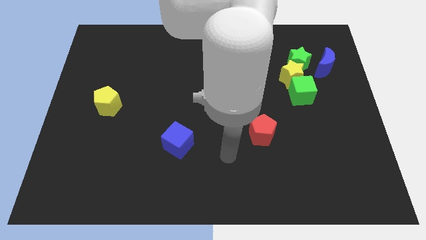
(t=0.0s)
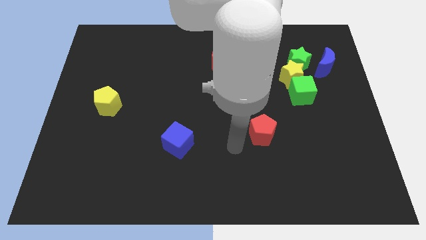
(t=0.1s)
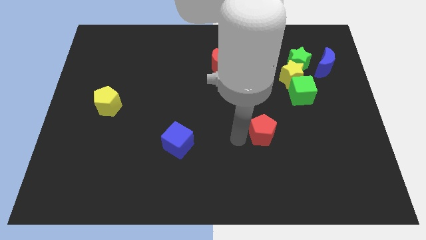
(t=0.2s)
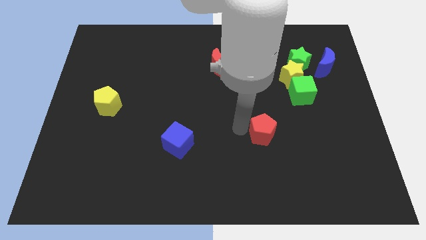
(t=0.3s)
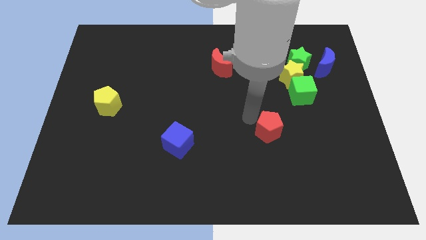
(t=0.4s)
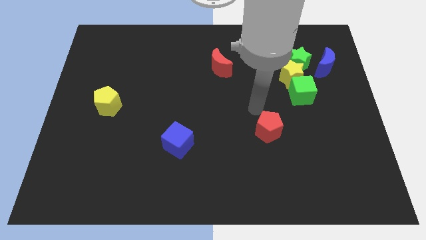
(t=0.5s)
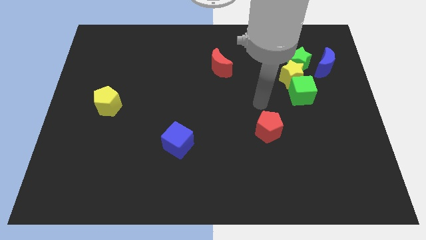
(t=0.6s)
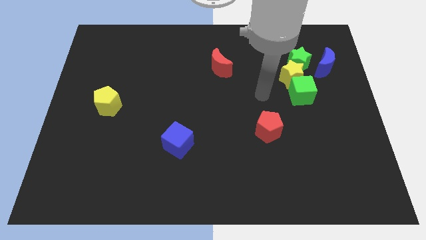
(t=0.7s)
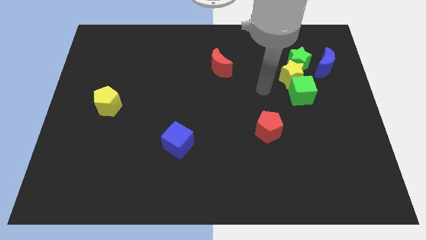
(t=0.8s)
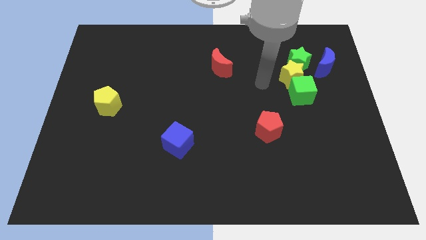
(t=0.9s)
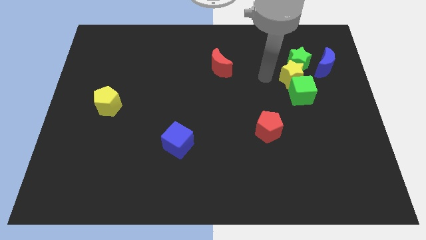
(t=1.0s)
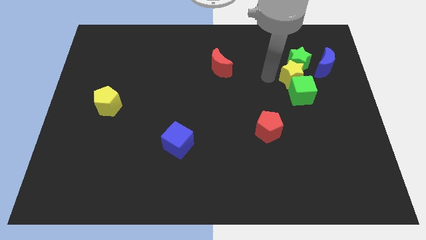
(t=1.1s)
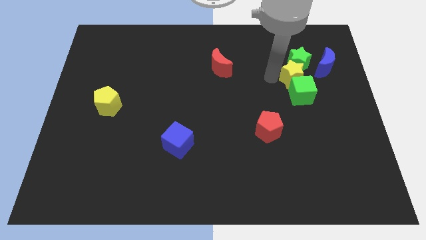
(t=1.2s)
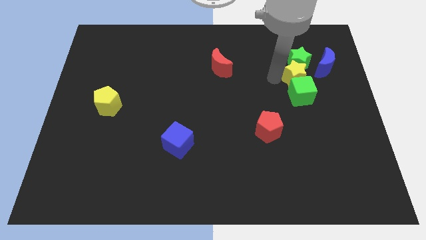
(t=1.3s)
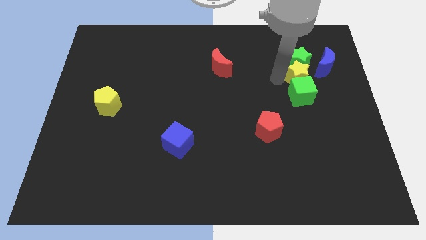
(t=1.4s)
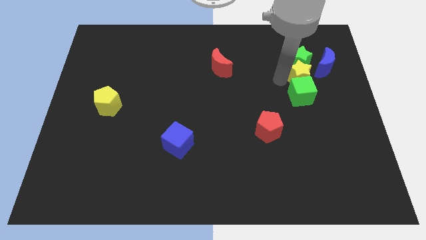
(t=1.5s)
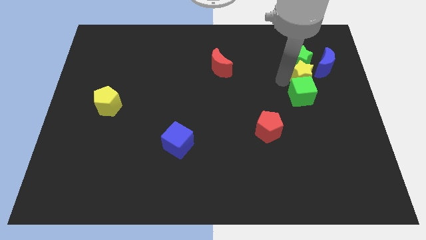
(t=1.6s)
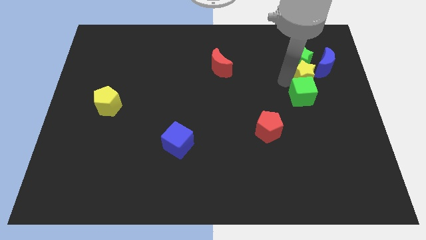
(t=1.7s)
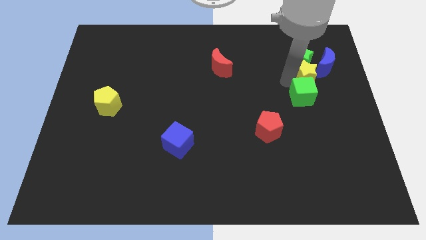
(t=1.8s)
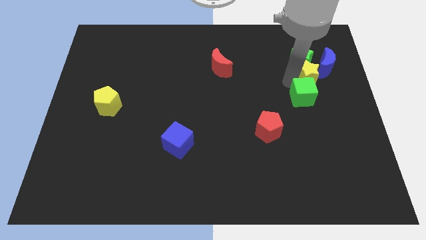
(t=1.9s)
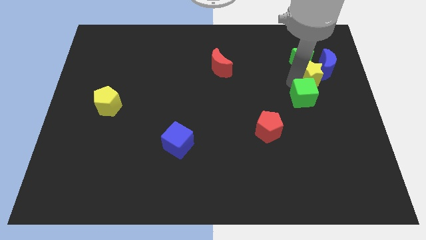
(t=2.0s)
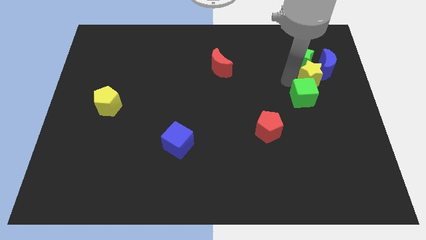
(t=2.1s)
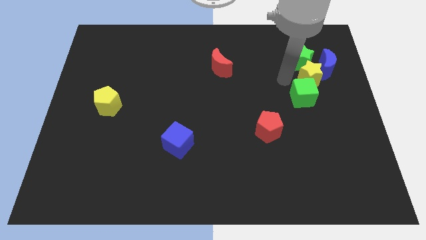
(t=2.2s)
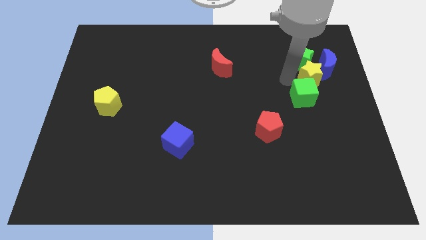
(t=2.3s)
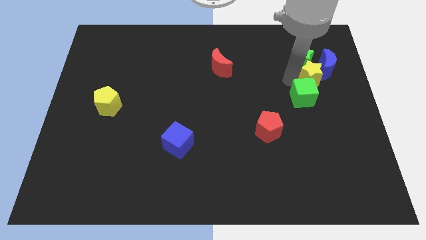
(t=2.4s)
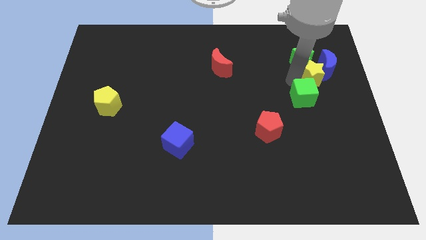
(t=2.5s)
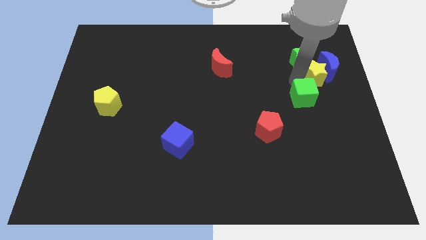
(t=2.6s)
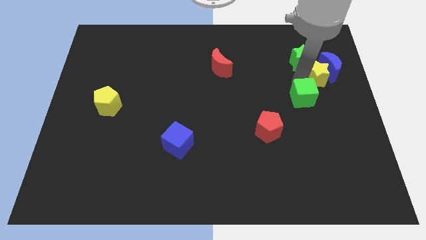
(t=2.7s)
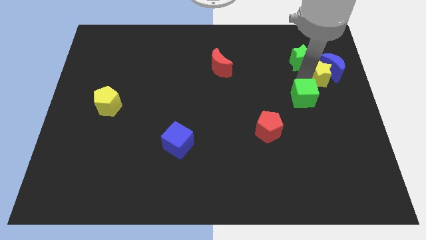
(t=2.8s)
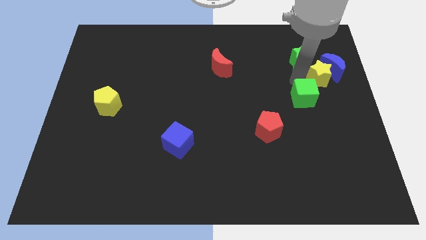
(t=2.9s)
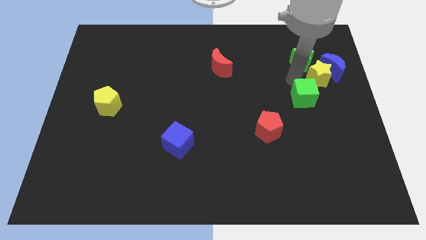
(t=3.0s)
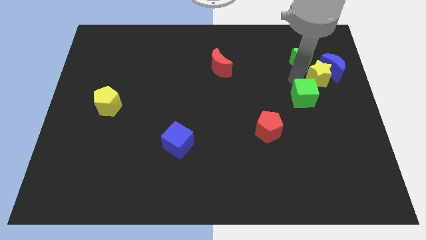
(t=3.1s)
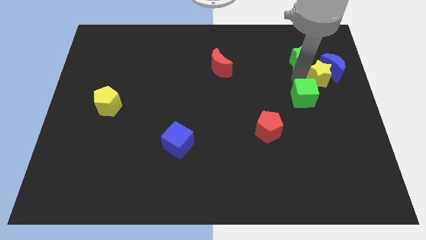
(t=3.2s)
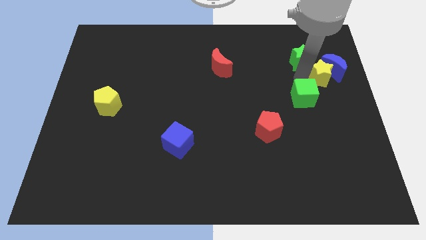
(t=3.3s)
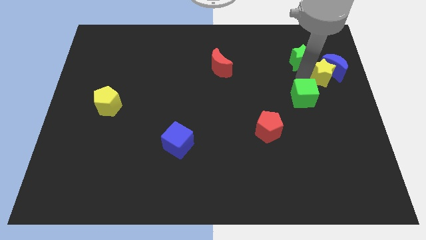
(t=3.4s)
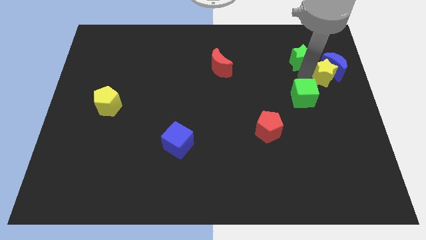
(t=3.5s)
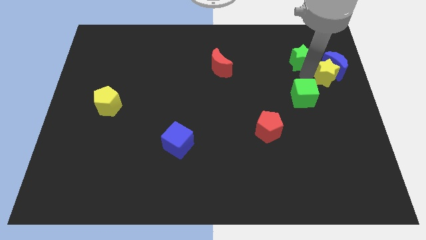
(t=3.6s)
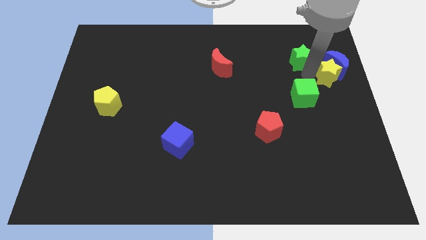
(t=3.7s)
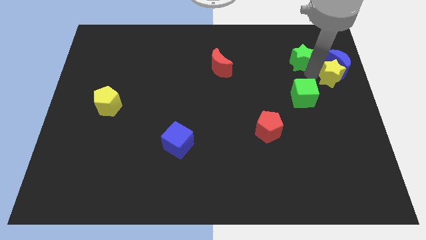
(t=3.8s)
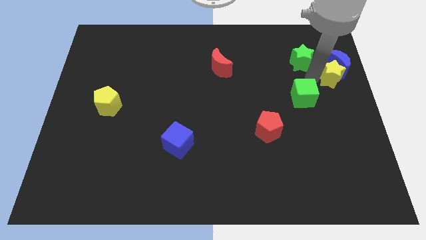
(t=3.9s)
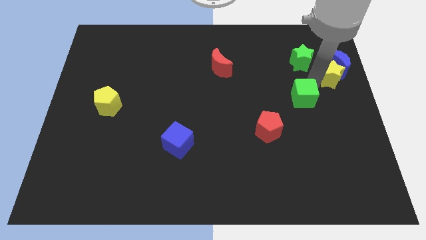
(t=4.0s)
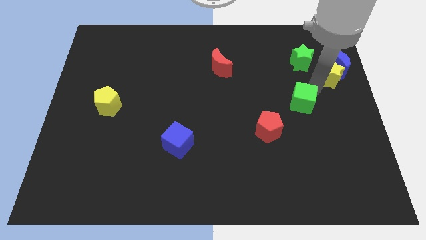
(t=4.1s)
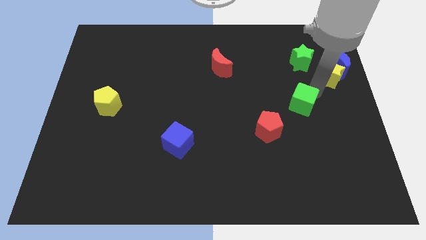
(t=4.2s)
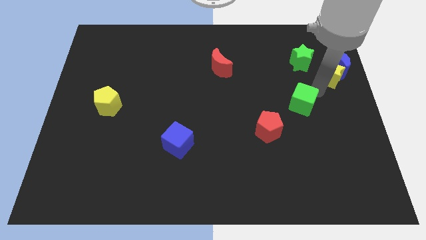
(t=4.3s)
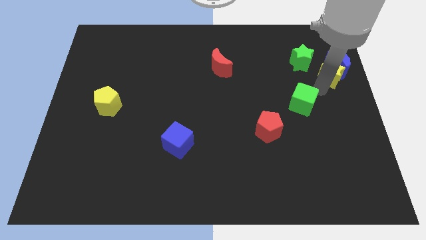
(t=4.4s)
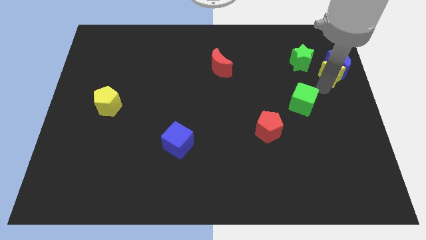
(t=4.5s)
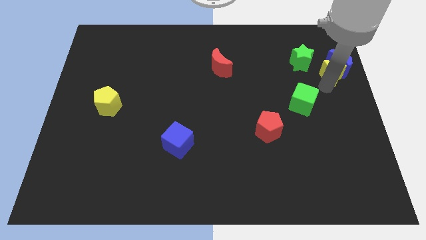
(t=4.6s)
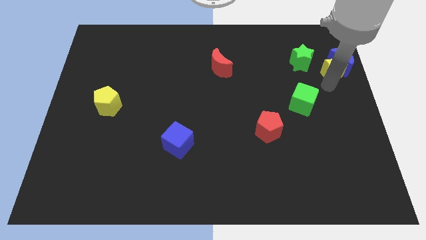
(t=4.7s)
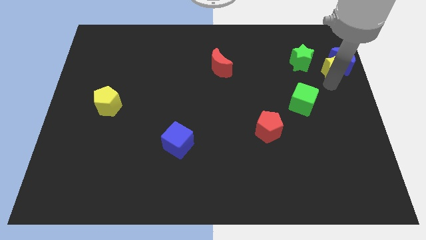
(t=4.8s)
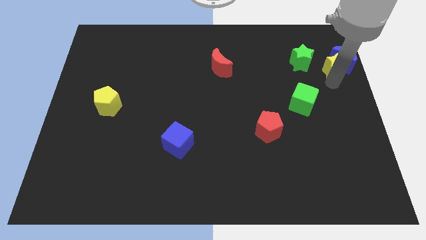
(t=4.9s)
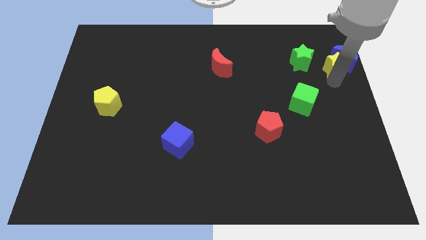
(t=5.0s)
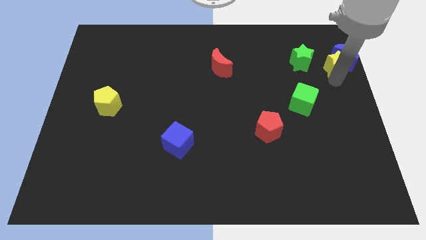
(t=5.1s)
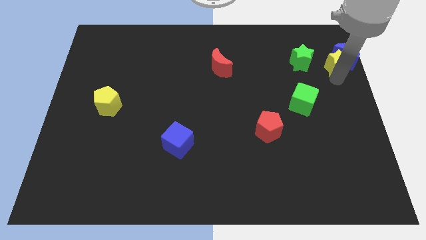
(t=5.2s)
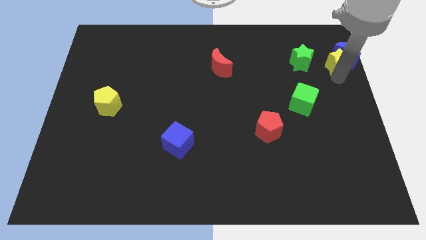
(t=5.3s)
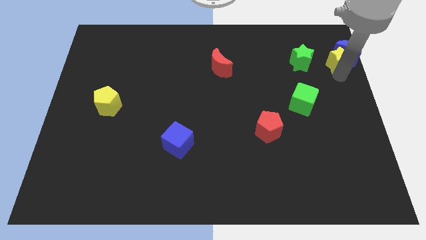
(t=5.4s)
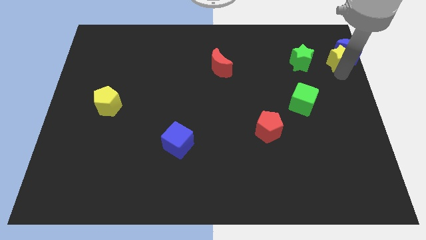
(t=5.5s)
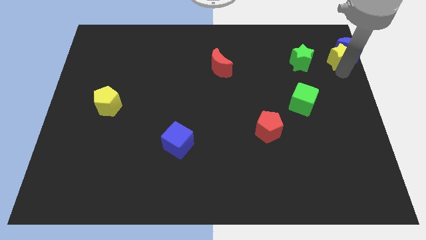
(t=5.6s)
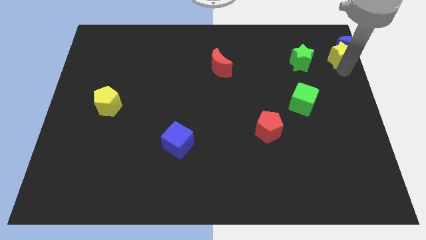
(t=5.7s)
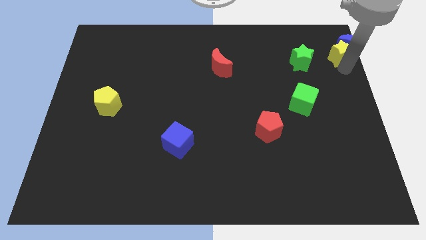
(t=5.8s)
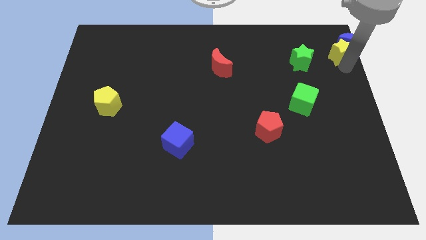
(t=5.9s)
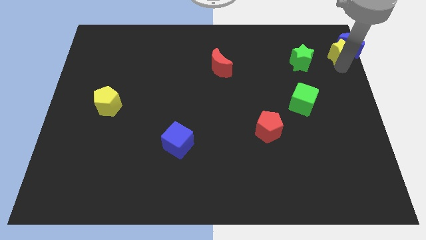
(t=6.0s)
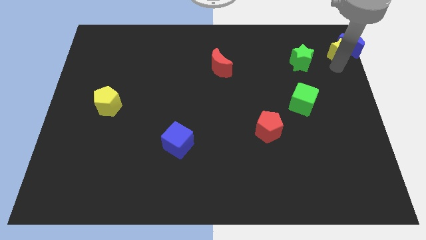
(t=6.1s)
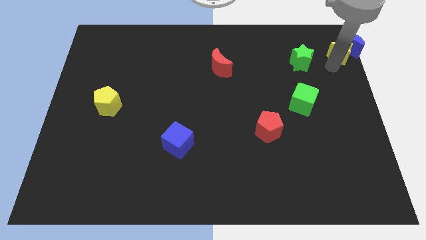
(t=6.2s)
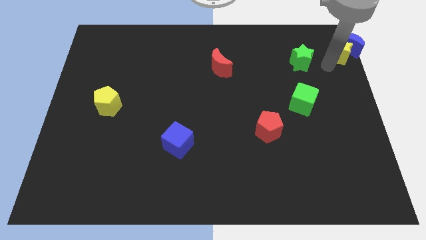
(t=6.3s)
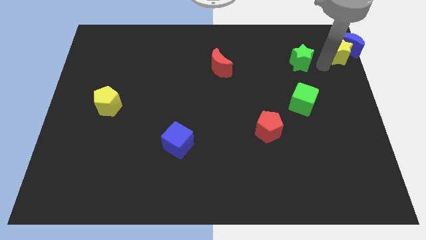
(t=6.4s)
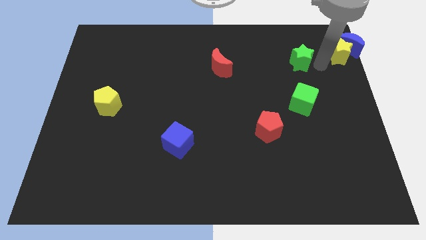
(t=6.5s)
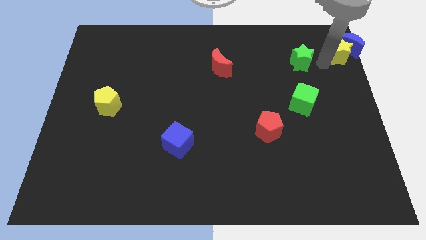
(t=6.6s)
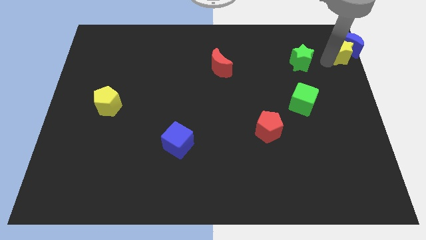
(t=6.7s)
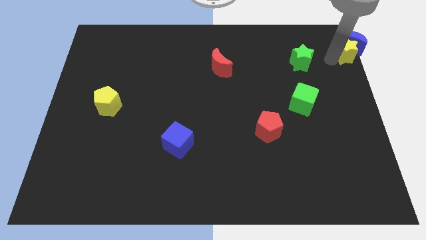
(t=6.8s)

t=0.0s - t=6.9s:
slide the yellow star to the top right corner
